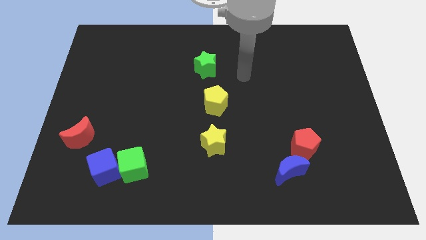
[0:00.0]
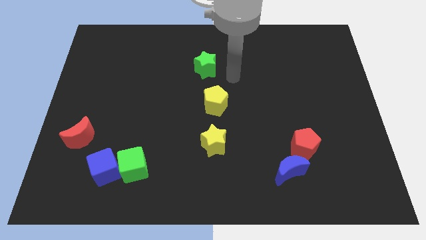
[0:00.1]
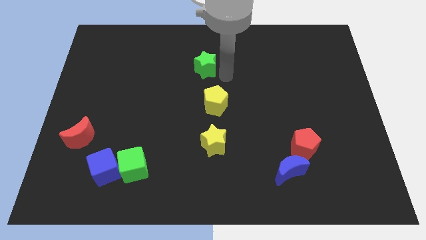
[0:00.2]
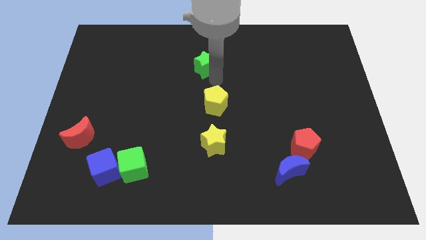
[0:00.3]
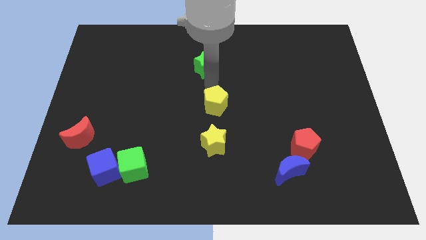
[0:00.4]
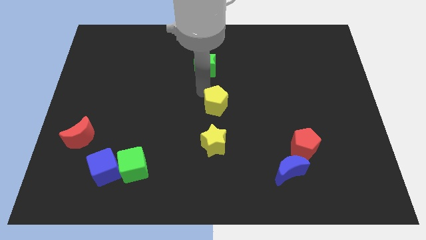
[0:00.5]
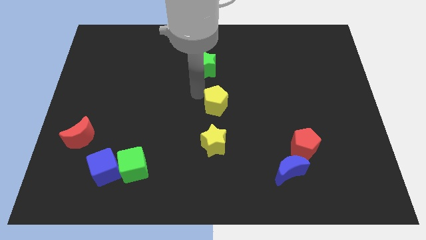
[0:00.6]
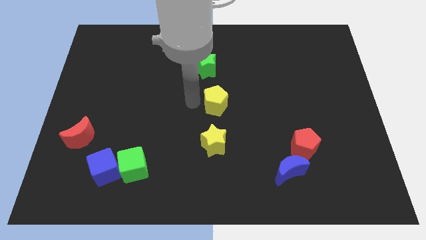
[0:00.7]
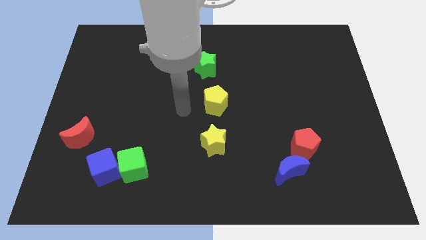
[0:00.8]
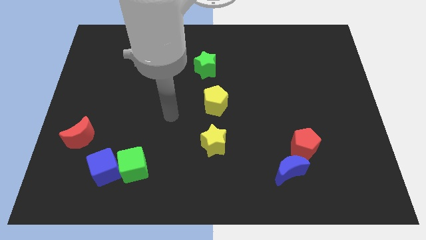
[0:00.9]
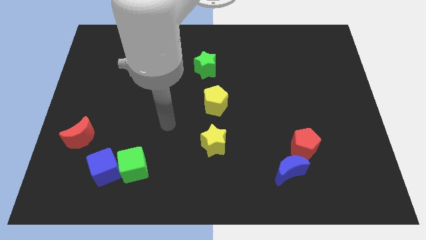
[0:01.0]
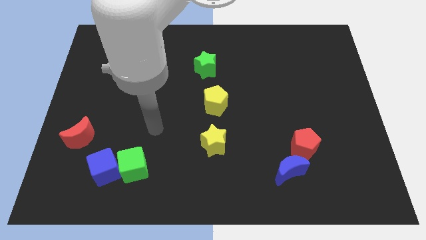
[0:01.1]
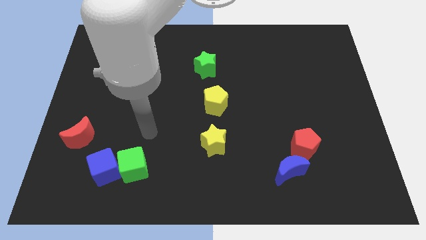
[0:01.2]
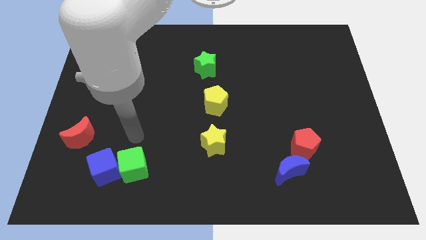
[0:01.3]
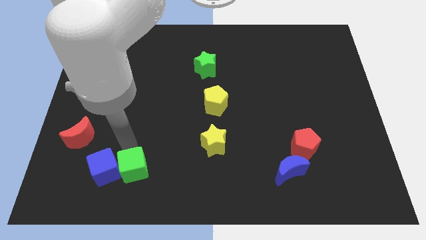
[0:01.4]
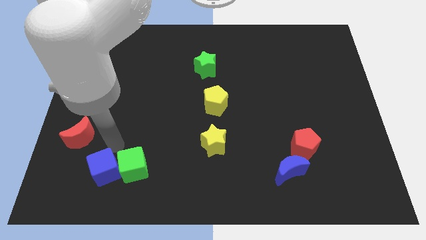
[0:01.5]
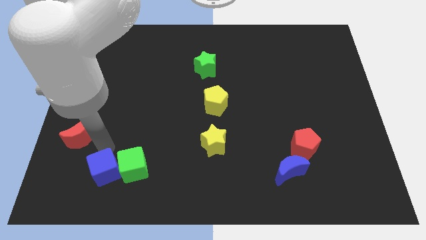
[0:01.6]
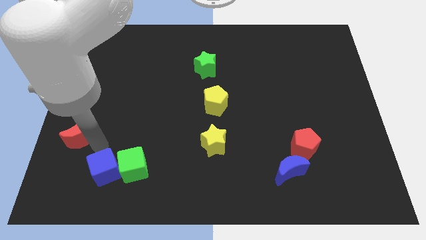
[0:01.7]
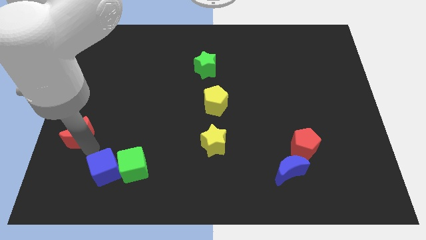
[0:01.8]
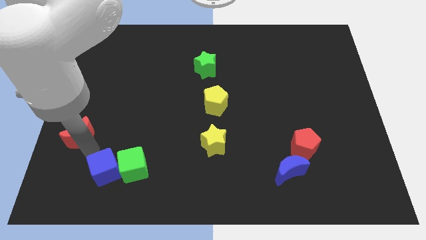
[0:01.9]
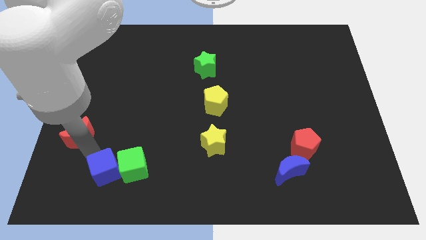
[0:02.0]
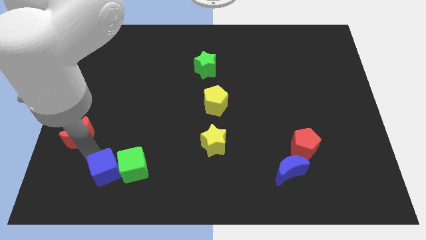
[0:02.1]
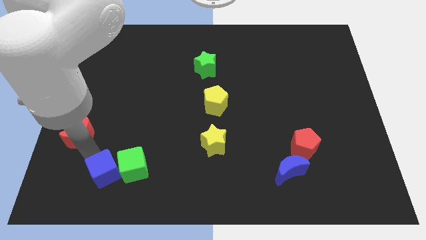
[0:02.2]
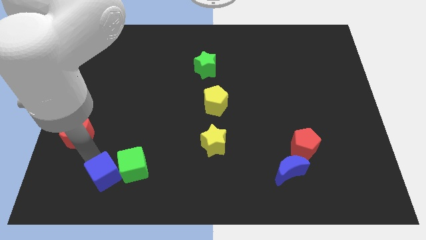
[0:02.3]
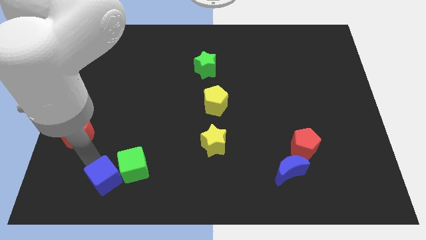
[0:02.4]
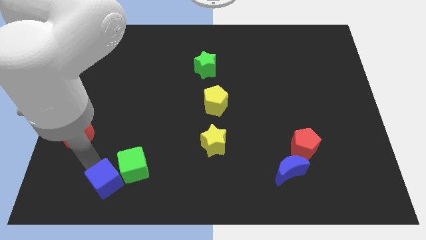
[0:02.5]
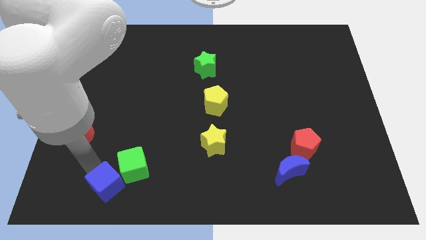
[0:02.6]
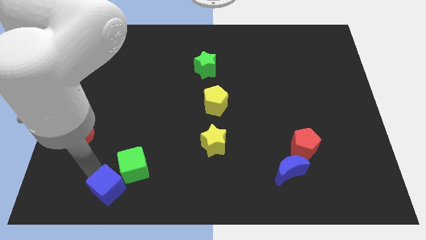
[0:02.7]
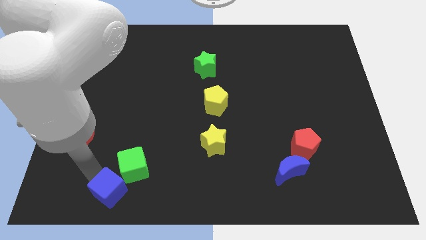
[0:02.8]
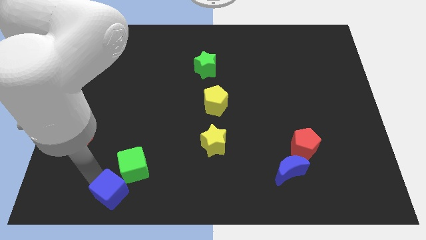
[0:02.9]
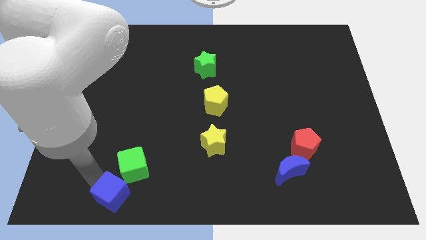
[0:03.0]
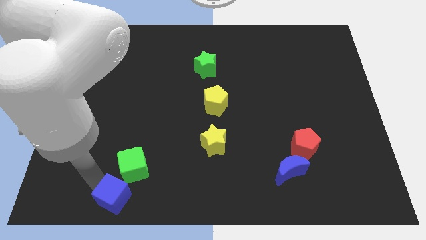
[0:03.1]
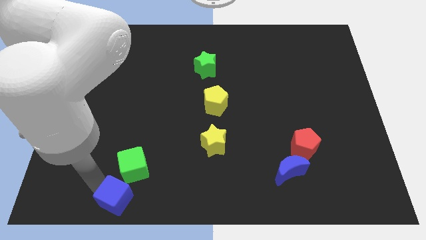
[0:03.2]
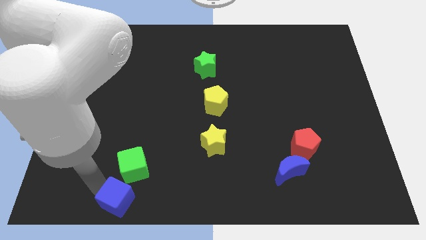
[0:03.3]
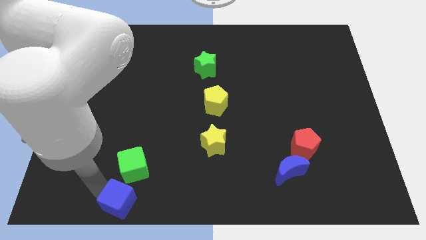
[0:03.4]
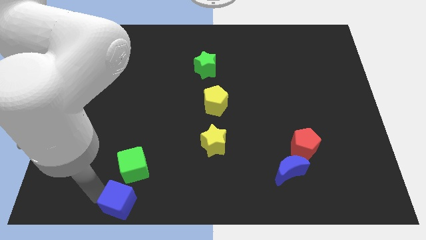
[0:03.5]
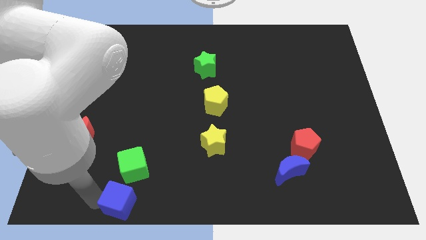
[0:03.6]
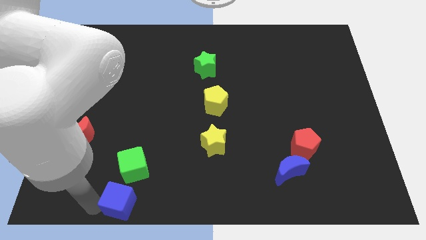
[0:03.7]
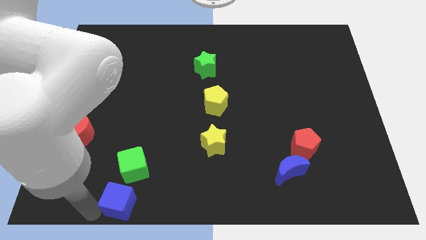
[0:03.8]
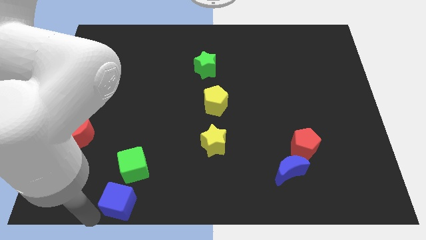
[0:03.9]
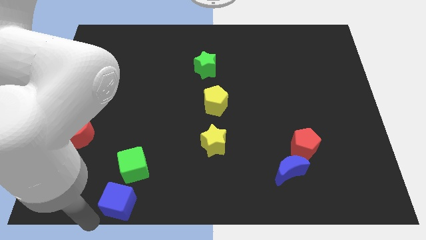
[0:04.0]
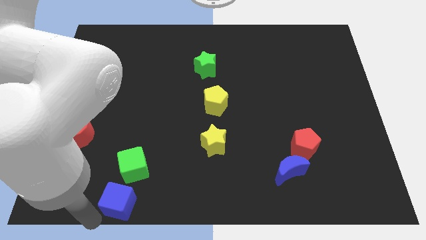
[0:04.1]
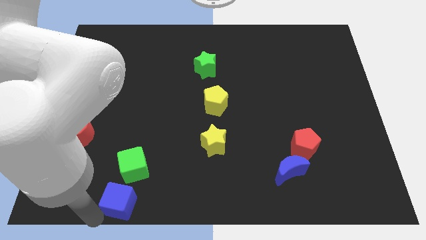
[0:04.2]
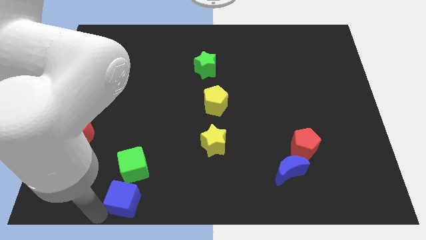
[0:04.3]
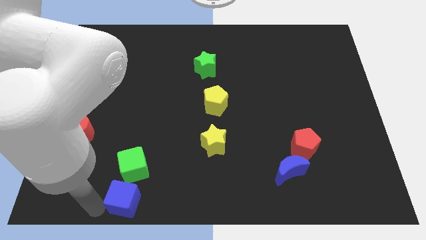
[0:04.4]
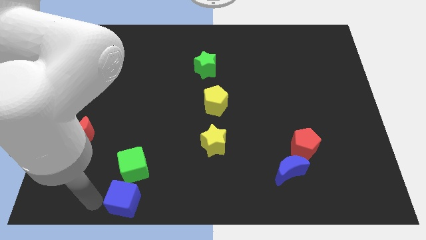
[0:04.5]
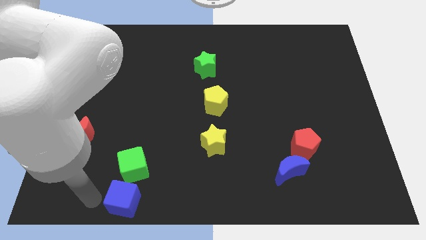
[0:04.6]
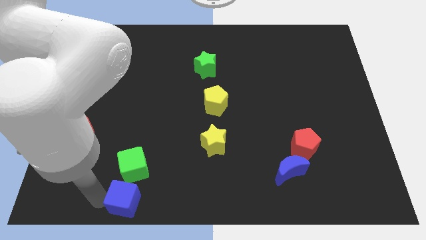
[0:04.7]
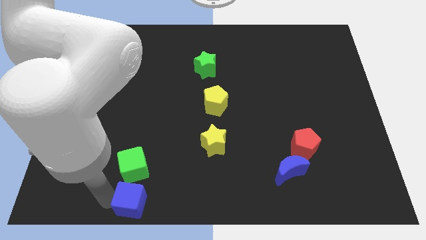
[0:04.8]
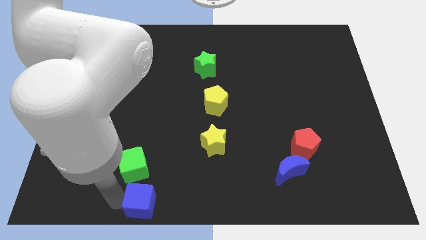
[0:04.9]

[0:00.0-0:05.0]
slide the blue cube to the bottom side

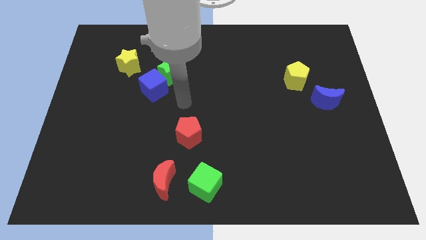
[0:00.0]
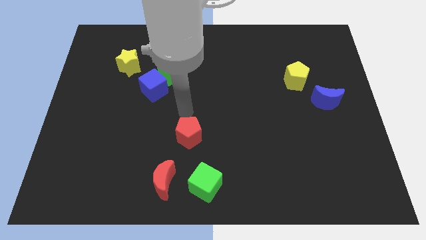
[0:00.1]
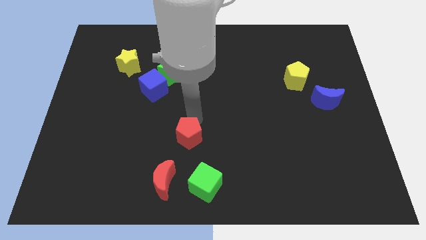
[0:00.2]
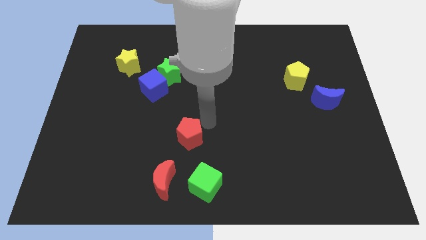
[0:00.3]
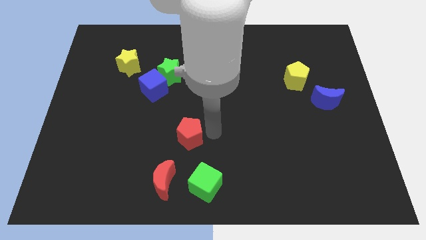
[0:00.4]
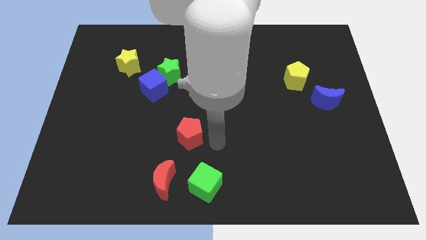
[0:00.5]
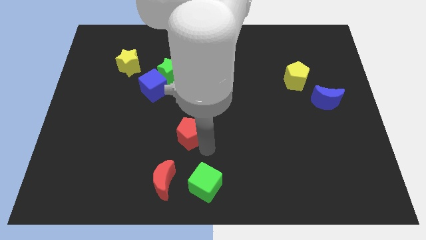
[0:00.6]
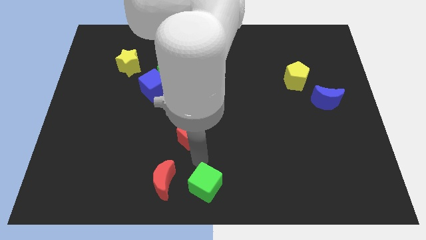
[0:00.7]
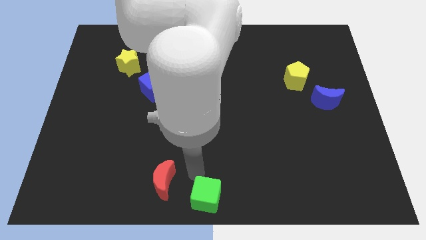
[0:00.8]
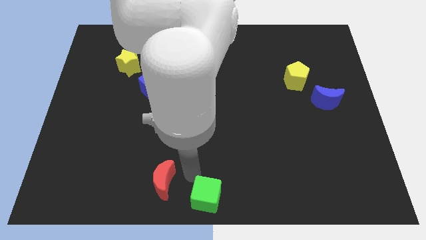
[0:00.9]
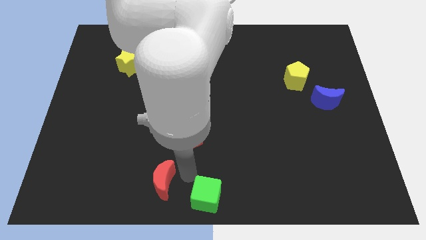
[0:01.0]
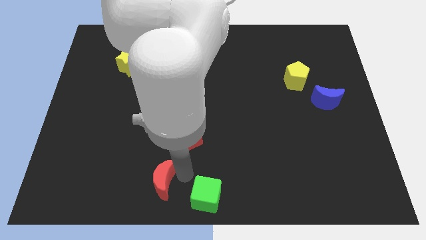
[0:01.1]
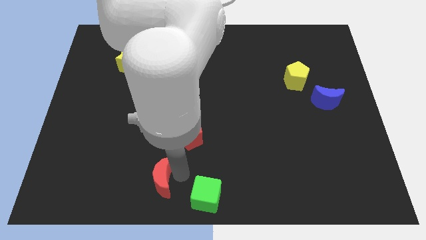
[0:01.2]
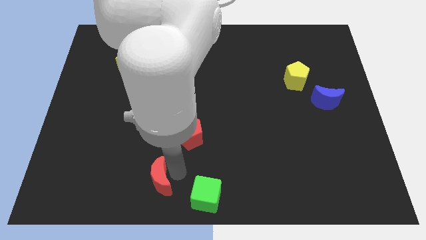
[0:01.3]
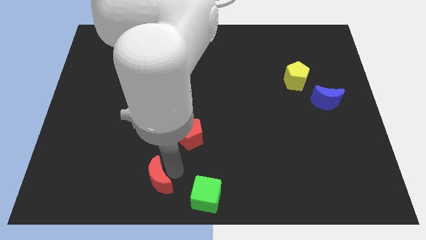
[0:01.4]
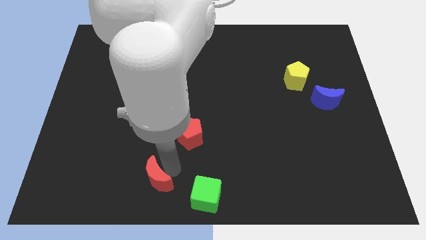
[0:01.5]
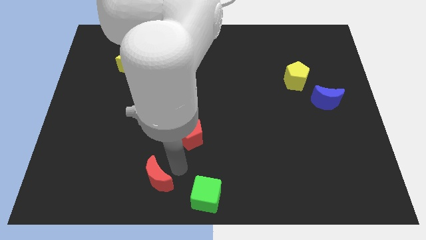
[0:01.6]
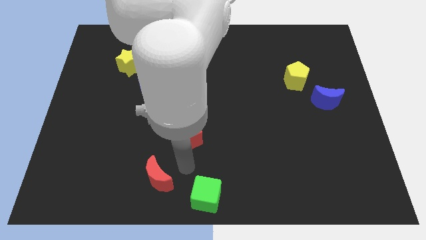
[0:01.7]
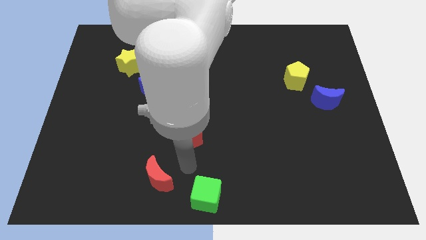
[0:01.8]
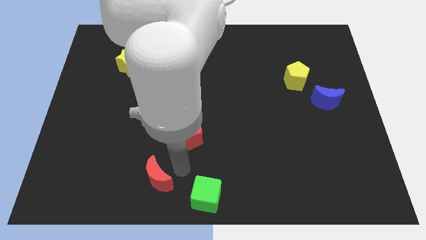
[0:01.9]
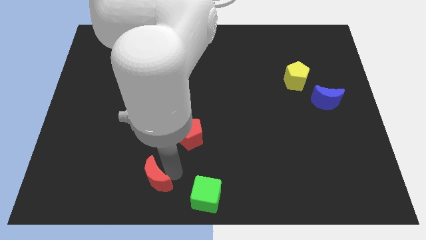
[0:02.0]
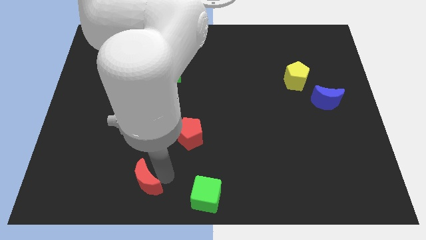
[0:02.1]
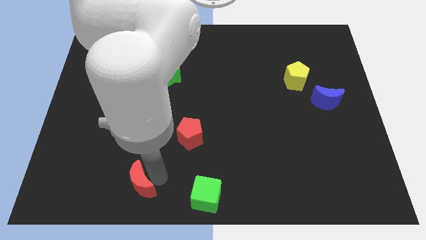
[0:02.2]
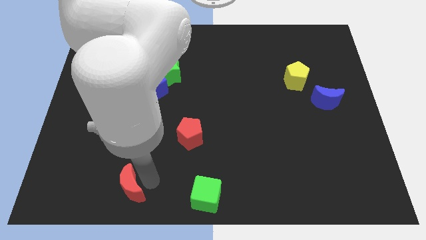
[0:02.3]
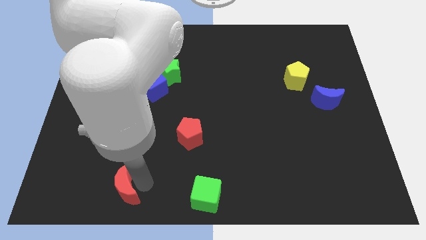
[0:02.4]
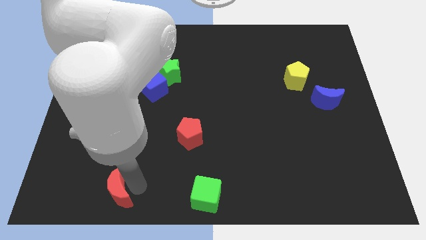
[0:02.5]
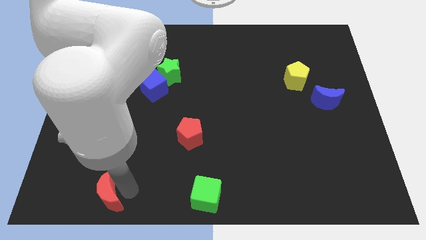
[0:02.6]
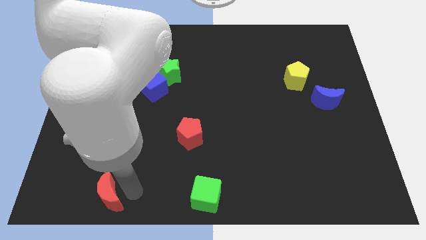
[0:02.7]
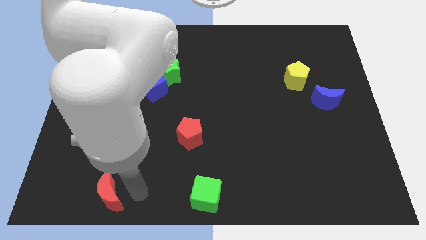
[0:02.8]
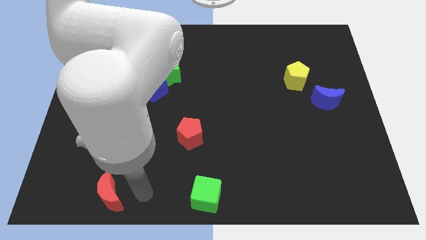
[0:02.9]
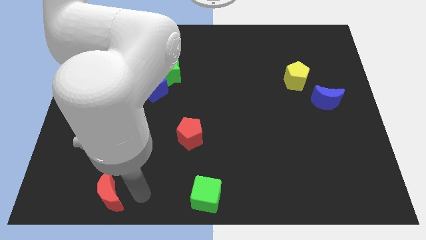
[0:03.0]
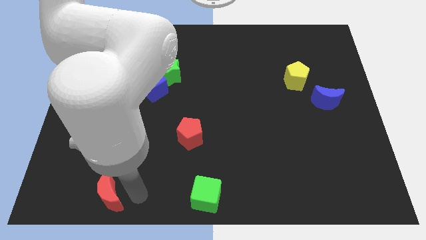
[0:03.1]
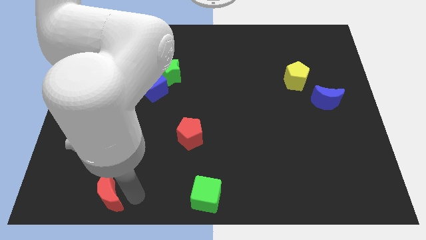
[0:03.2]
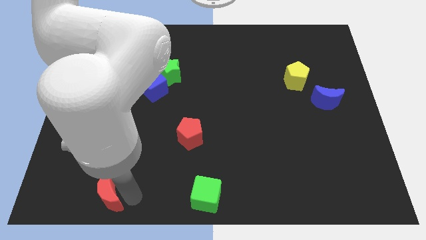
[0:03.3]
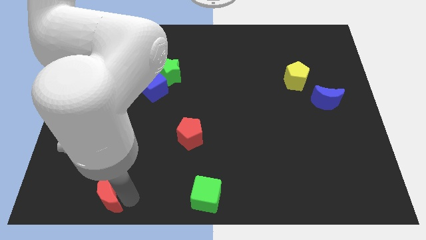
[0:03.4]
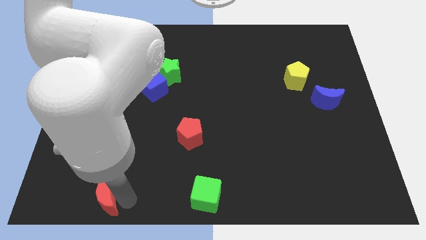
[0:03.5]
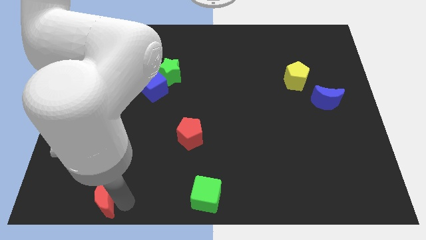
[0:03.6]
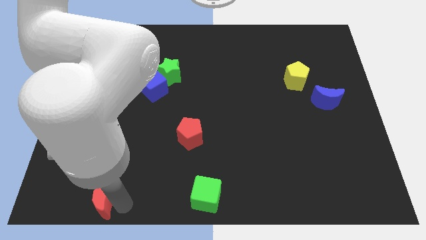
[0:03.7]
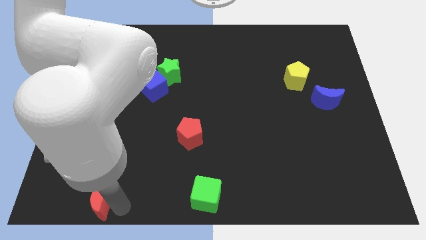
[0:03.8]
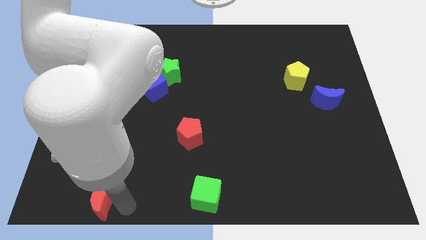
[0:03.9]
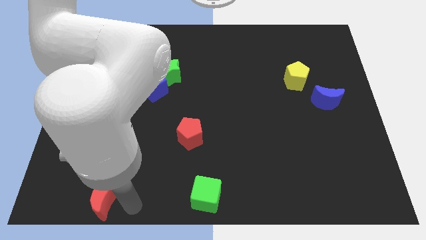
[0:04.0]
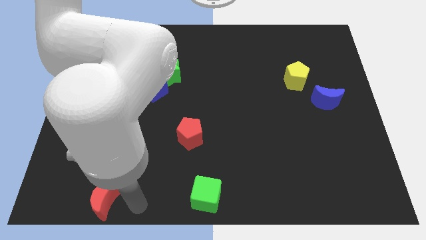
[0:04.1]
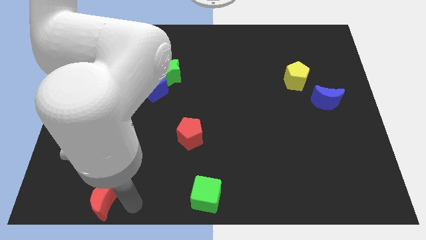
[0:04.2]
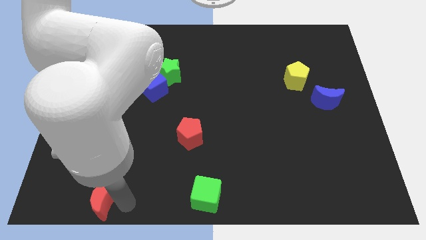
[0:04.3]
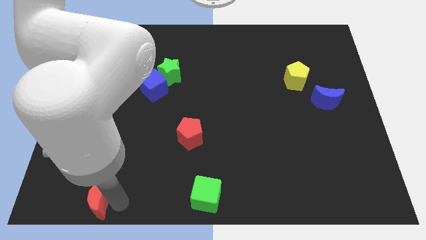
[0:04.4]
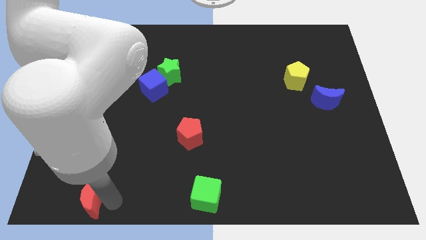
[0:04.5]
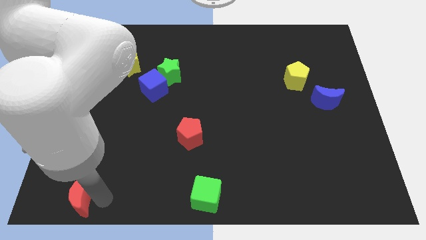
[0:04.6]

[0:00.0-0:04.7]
push the red moon to the bottom left corner
